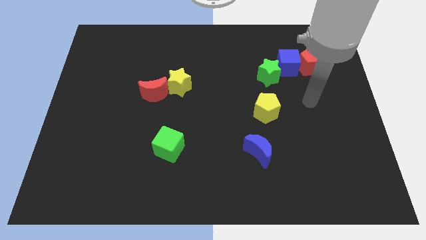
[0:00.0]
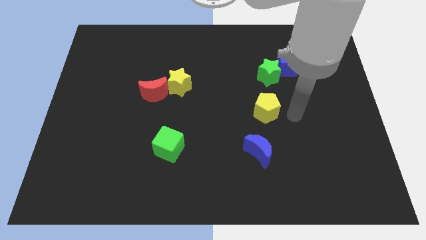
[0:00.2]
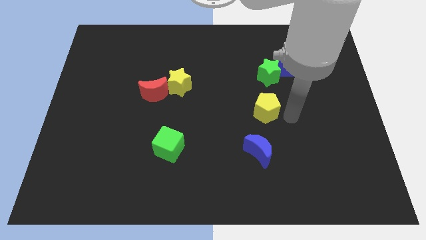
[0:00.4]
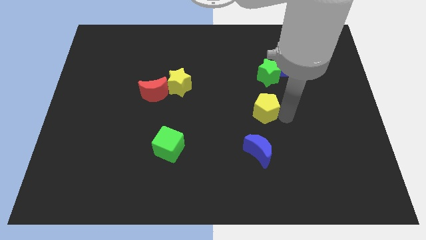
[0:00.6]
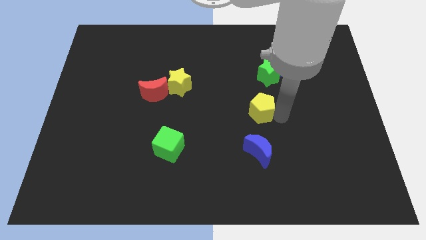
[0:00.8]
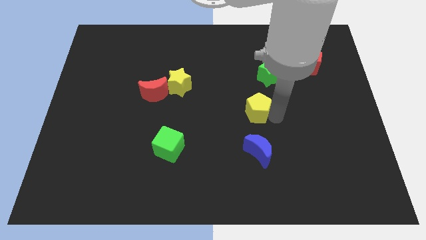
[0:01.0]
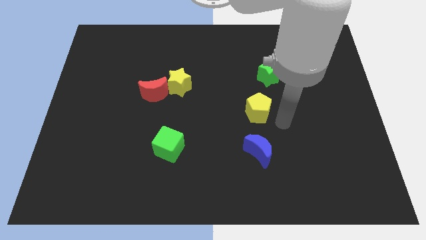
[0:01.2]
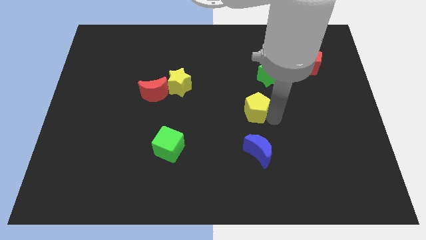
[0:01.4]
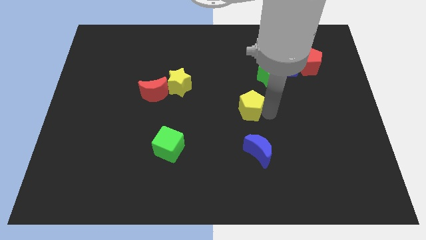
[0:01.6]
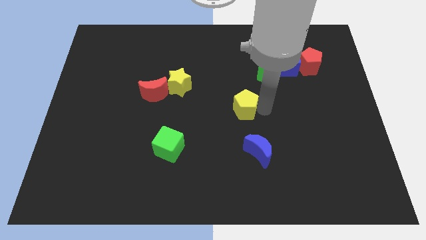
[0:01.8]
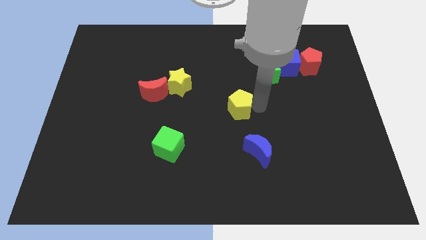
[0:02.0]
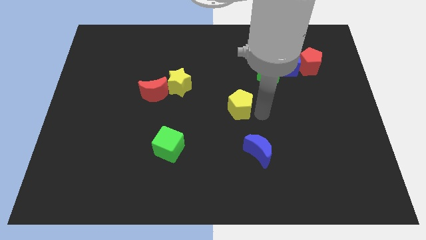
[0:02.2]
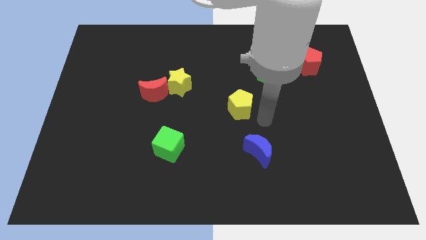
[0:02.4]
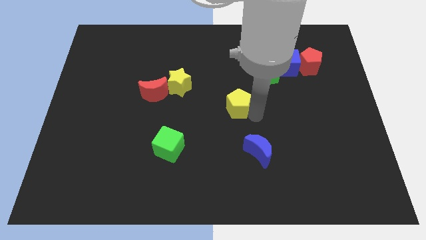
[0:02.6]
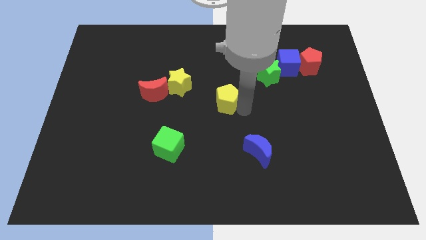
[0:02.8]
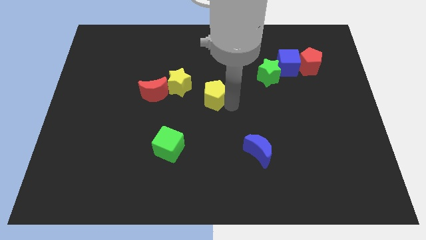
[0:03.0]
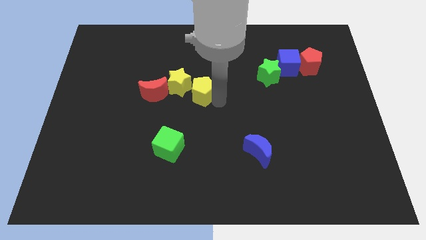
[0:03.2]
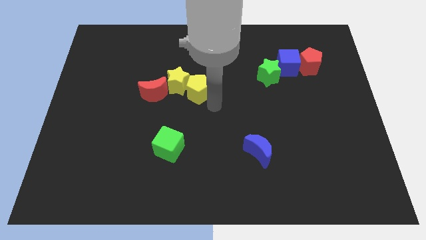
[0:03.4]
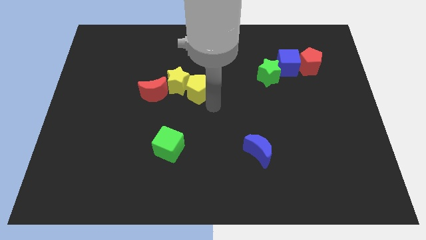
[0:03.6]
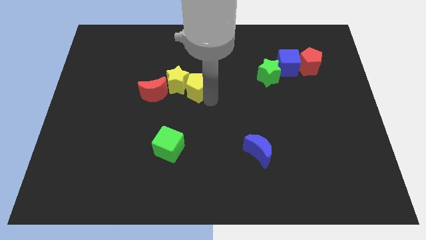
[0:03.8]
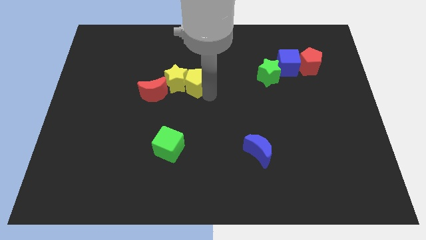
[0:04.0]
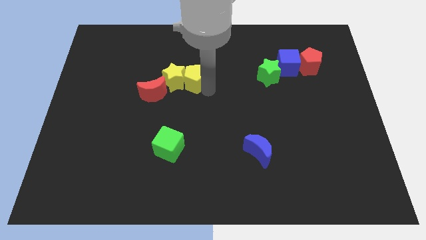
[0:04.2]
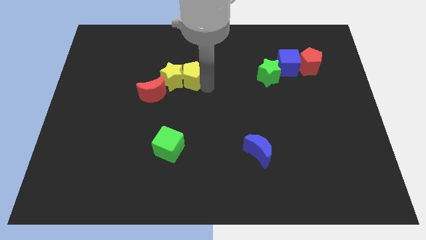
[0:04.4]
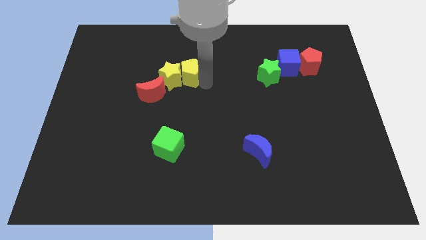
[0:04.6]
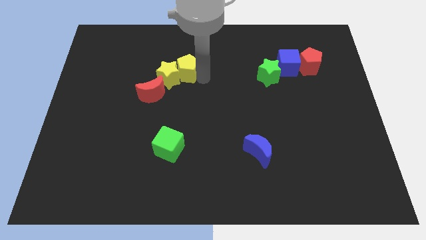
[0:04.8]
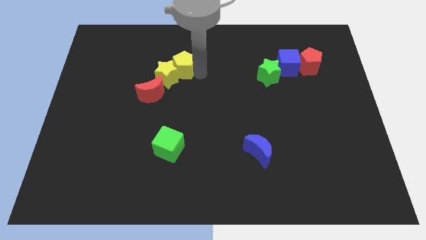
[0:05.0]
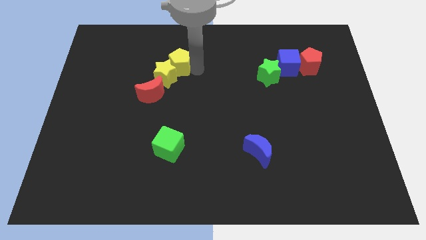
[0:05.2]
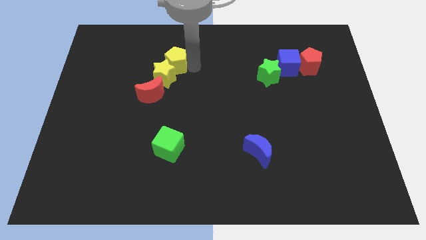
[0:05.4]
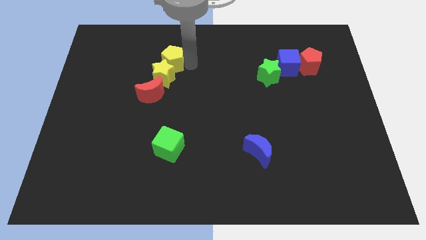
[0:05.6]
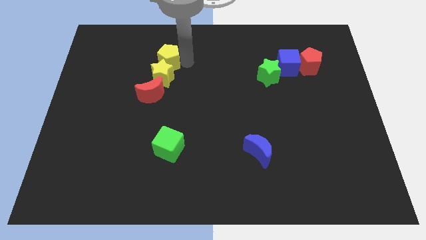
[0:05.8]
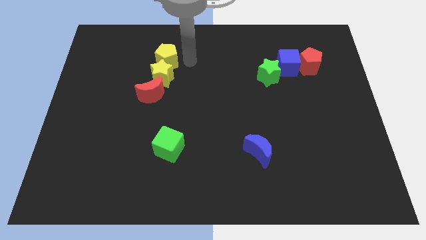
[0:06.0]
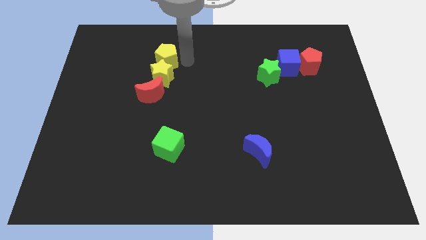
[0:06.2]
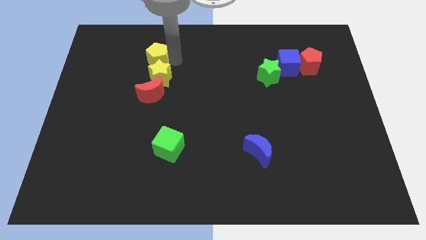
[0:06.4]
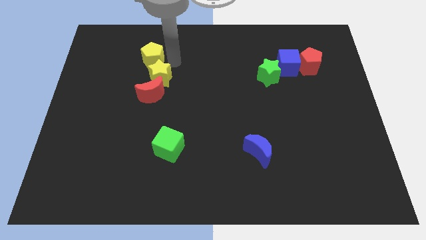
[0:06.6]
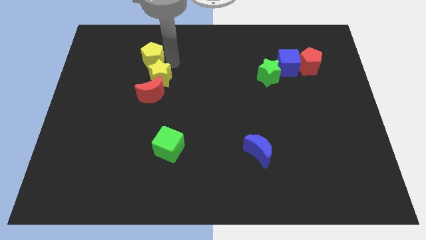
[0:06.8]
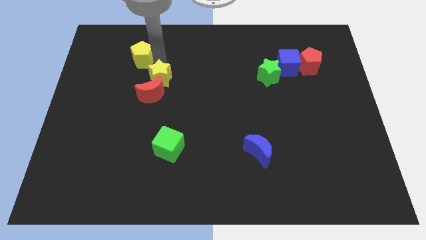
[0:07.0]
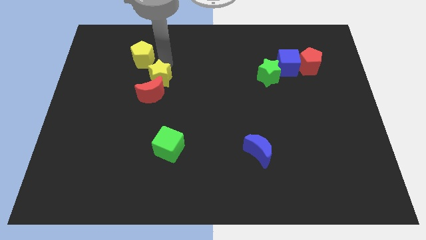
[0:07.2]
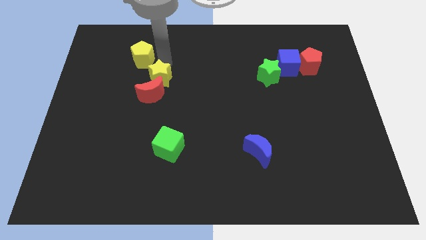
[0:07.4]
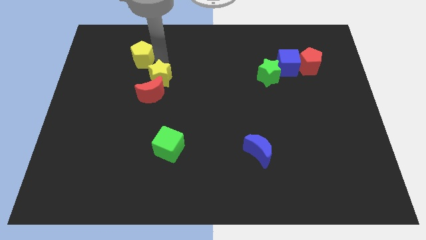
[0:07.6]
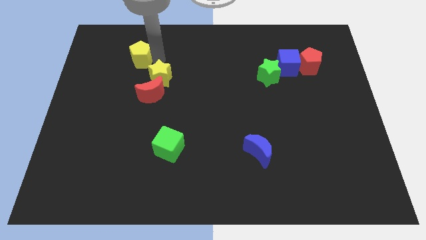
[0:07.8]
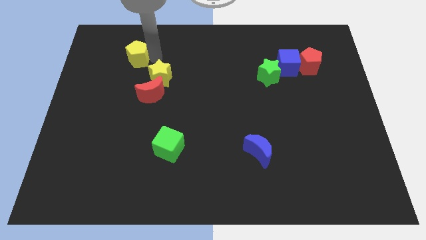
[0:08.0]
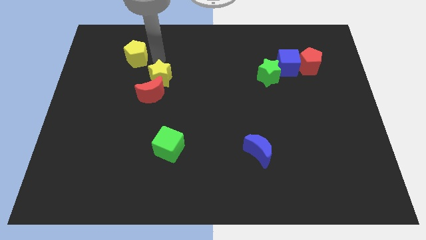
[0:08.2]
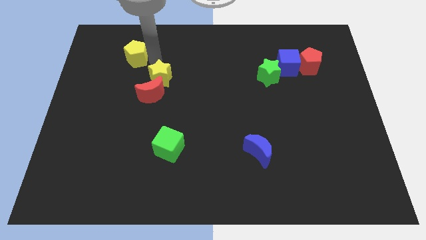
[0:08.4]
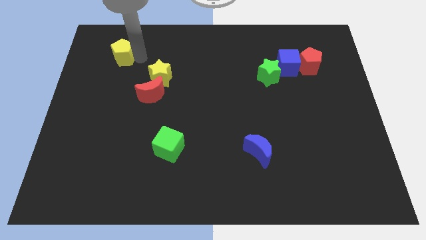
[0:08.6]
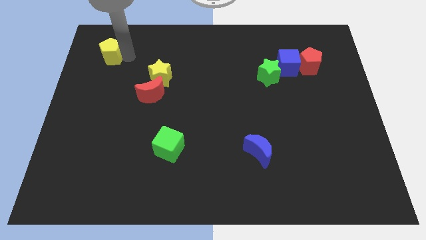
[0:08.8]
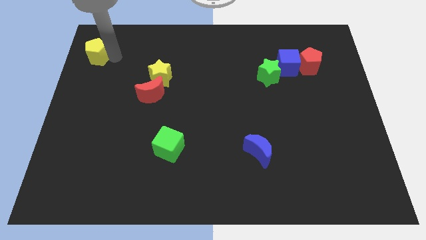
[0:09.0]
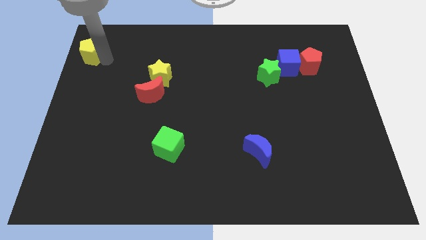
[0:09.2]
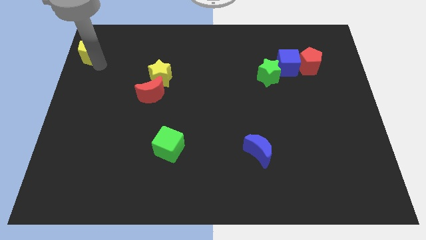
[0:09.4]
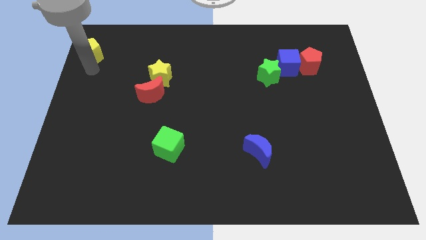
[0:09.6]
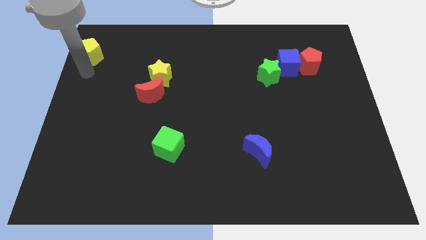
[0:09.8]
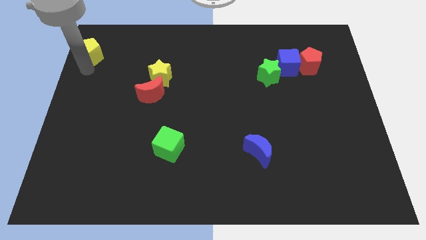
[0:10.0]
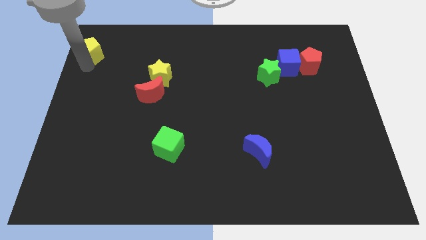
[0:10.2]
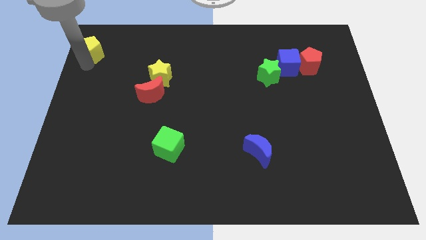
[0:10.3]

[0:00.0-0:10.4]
slide the yellow pentagon to the top left corner

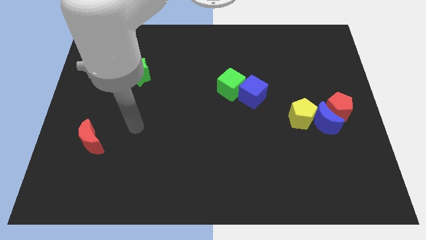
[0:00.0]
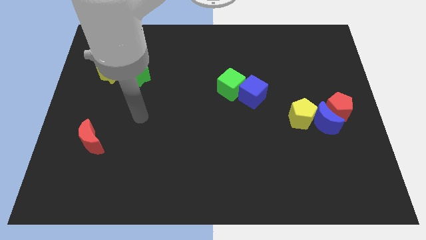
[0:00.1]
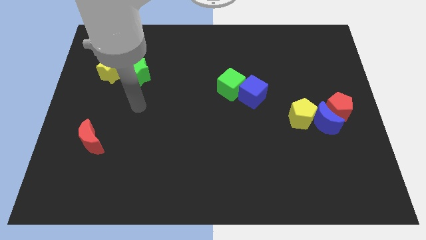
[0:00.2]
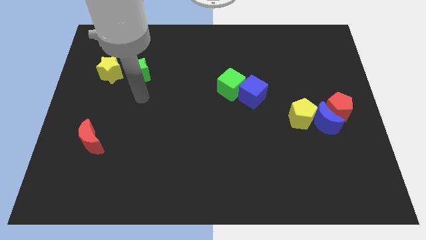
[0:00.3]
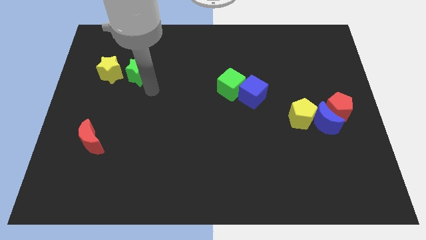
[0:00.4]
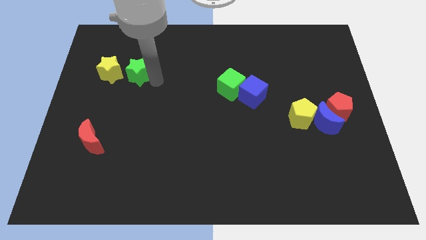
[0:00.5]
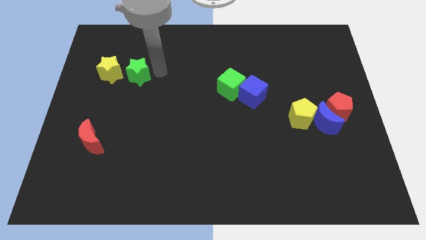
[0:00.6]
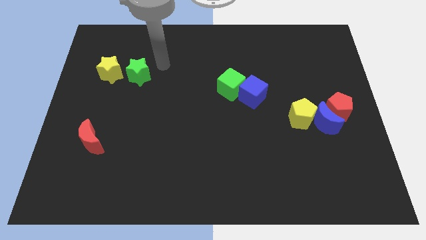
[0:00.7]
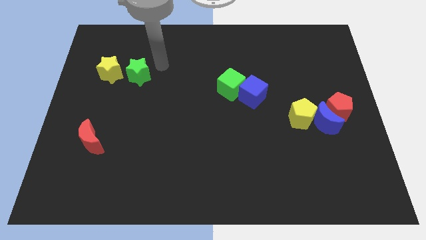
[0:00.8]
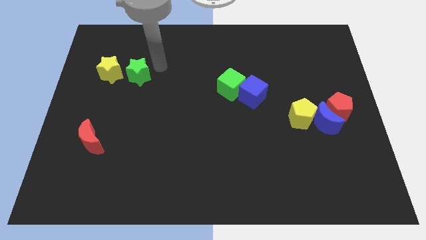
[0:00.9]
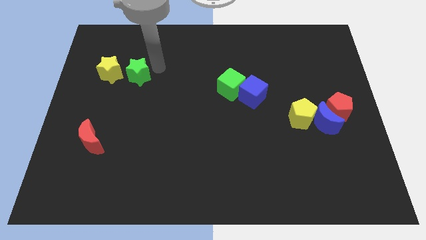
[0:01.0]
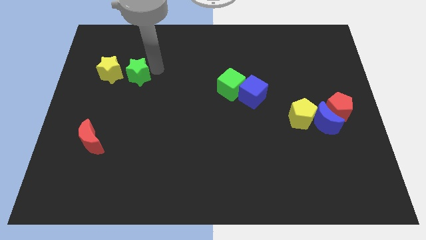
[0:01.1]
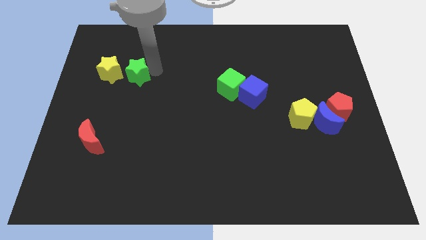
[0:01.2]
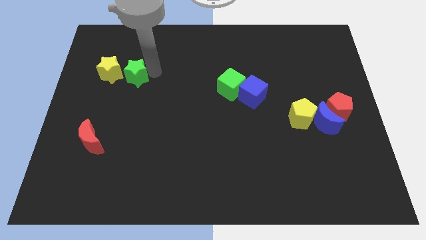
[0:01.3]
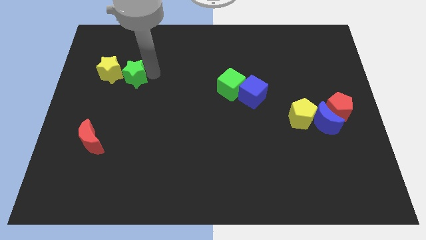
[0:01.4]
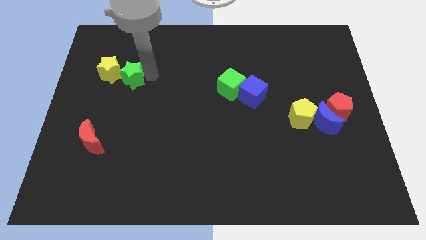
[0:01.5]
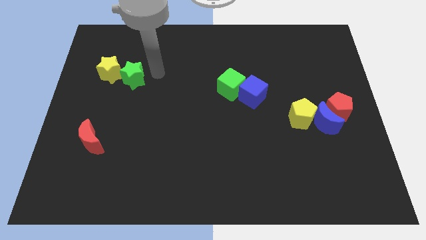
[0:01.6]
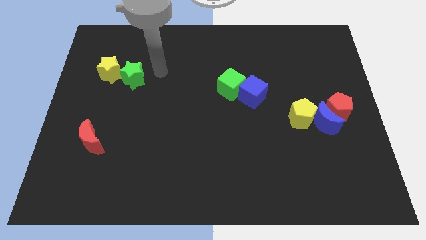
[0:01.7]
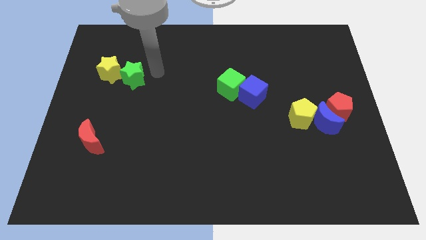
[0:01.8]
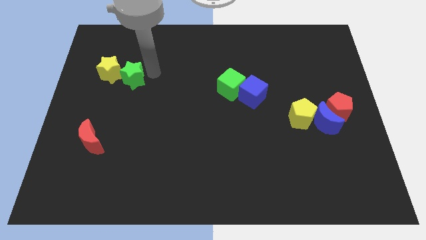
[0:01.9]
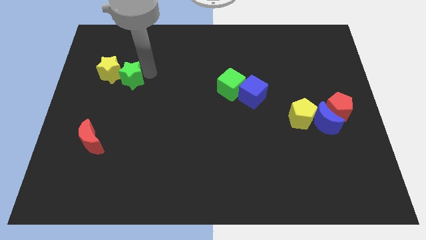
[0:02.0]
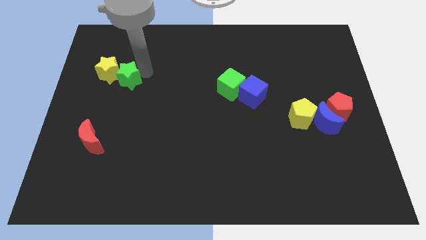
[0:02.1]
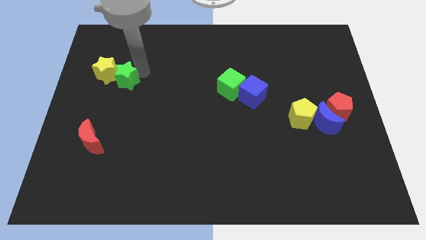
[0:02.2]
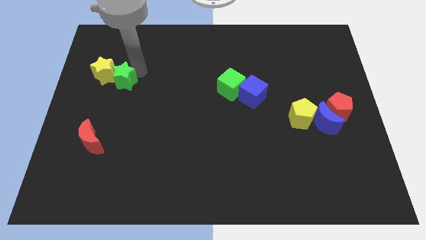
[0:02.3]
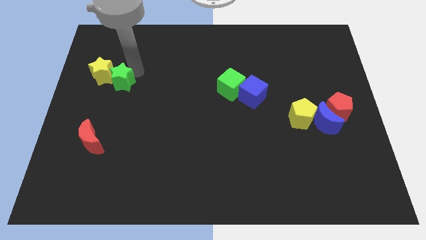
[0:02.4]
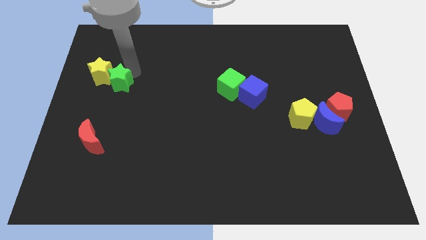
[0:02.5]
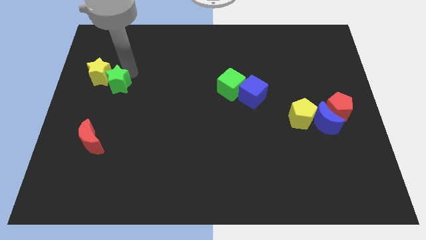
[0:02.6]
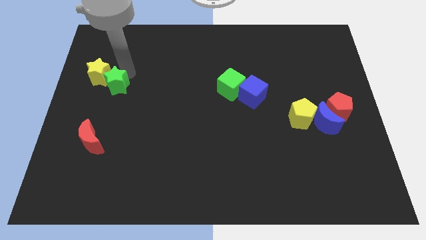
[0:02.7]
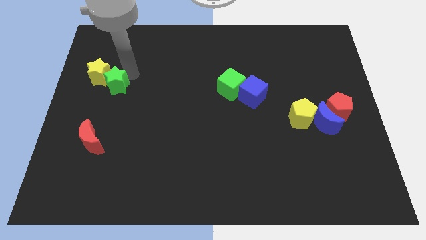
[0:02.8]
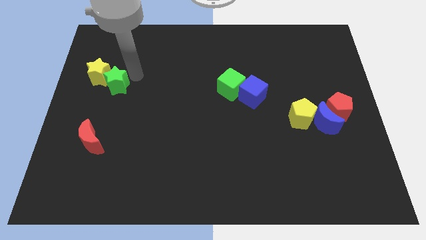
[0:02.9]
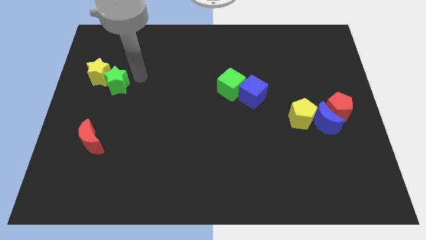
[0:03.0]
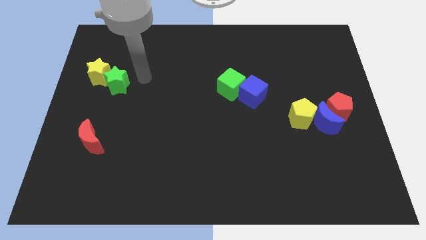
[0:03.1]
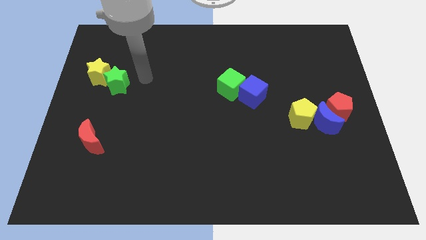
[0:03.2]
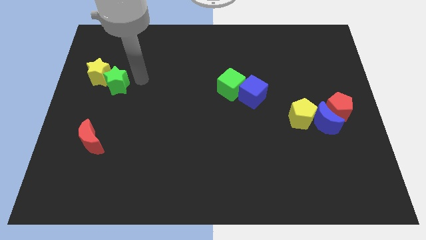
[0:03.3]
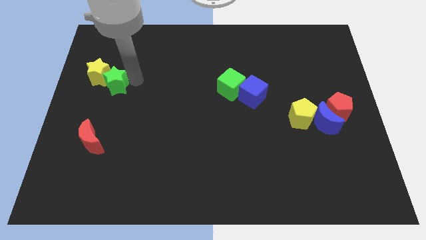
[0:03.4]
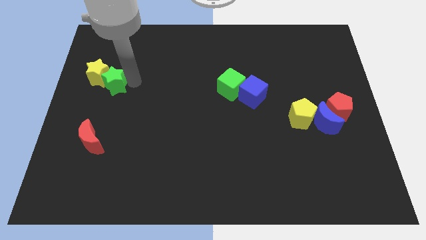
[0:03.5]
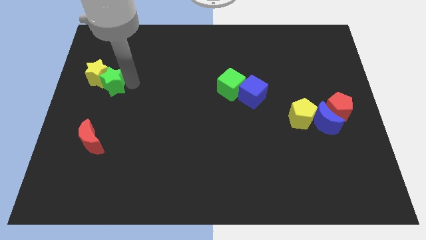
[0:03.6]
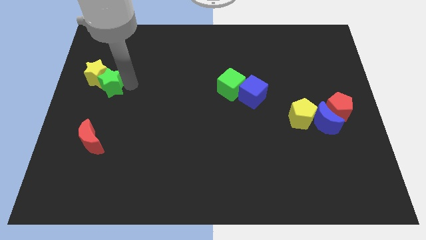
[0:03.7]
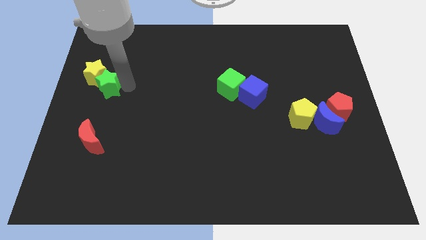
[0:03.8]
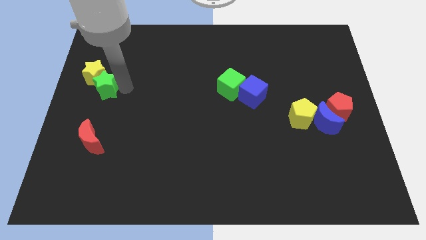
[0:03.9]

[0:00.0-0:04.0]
push the green star to the left side of the board
